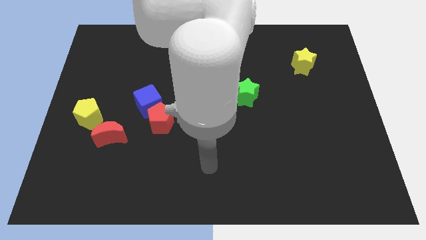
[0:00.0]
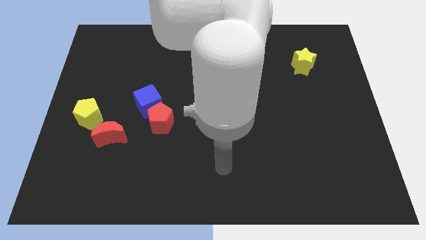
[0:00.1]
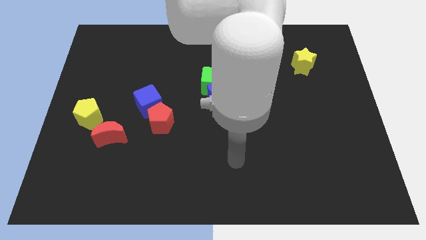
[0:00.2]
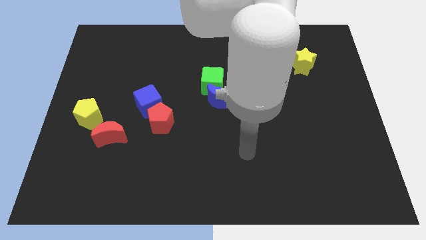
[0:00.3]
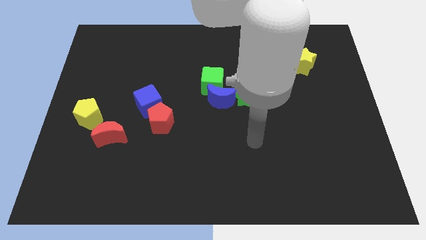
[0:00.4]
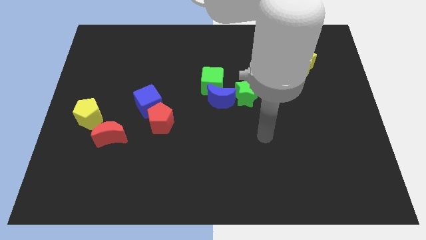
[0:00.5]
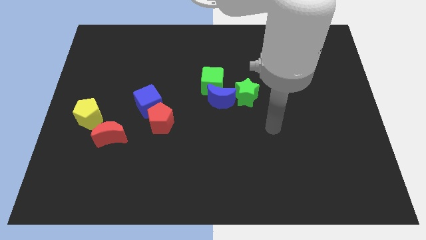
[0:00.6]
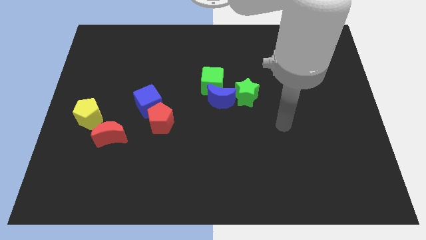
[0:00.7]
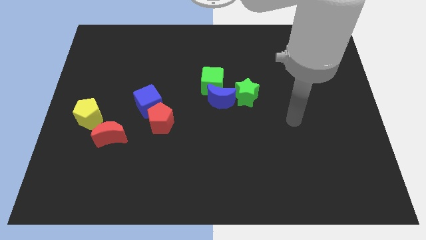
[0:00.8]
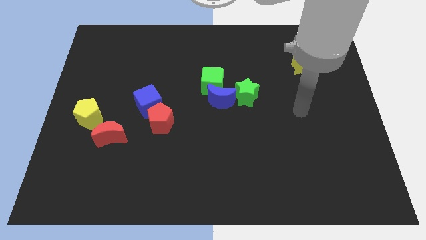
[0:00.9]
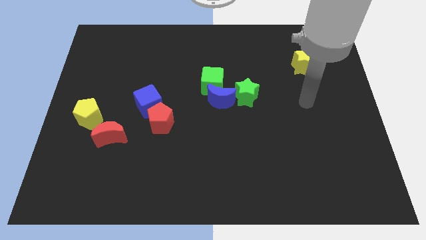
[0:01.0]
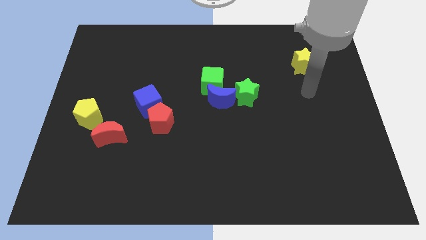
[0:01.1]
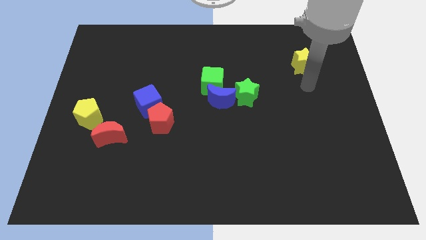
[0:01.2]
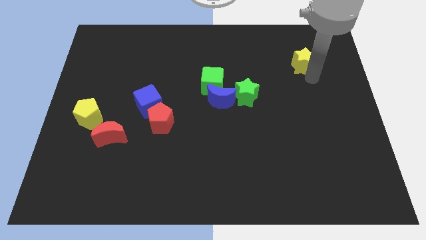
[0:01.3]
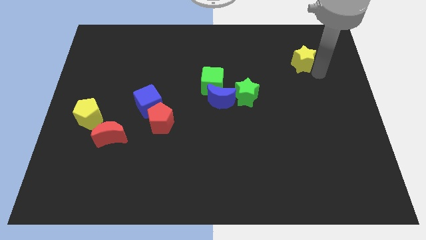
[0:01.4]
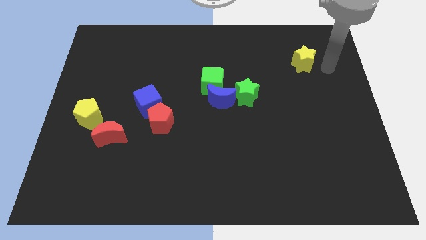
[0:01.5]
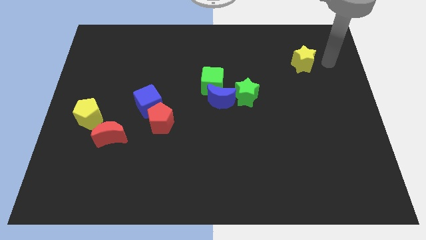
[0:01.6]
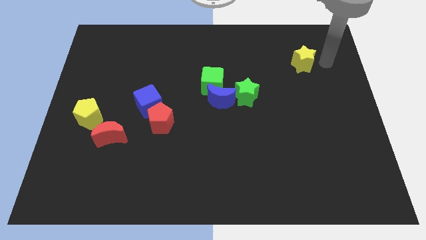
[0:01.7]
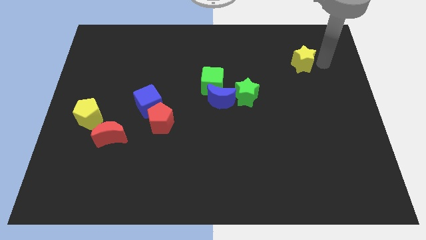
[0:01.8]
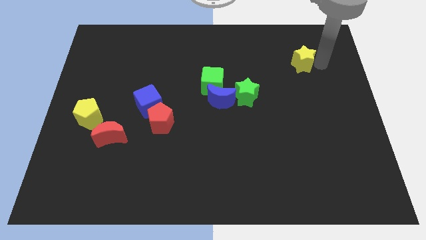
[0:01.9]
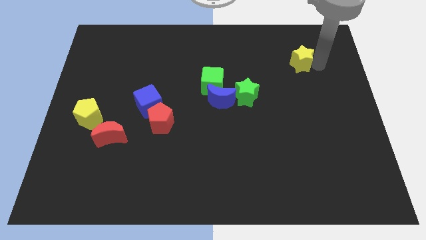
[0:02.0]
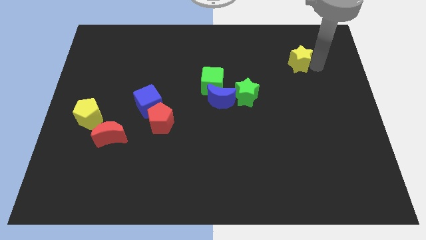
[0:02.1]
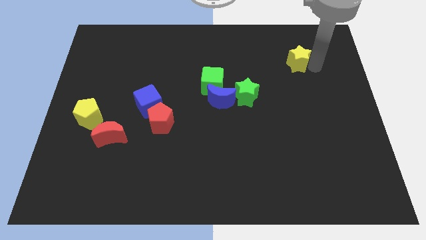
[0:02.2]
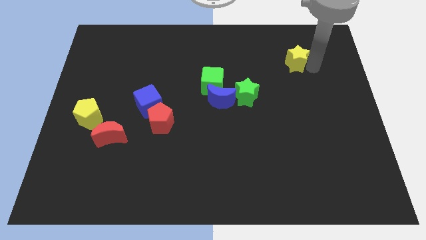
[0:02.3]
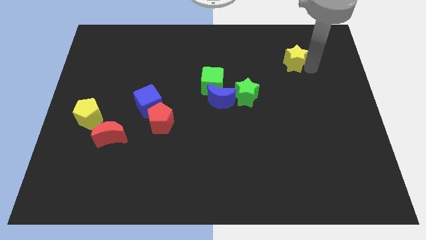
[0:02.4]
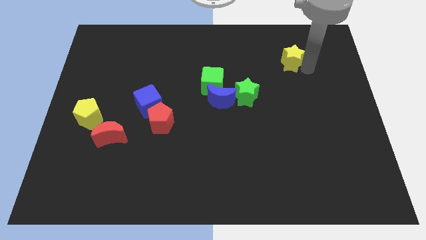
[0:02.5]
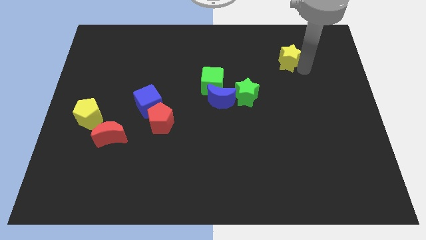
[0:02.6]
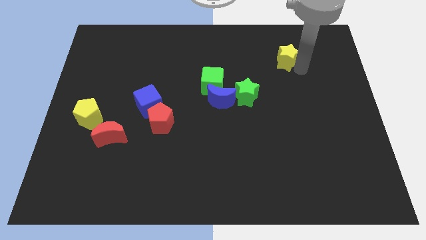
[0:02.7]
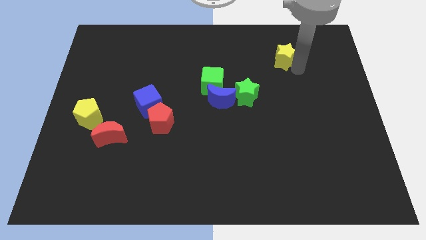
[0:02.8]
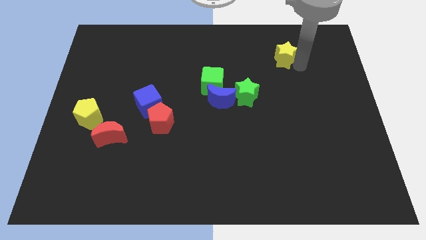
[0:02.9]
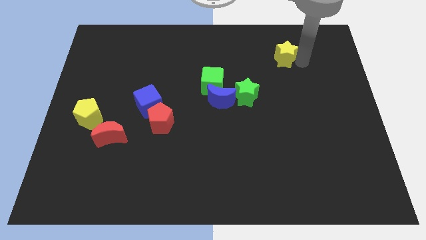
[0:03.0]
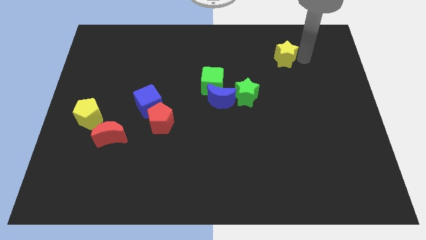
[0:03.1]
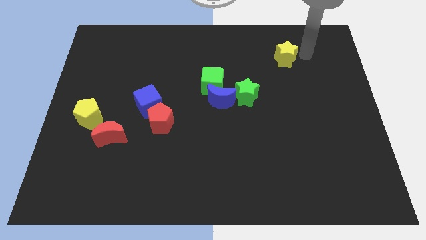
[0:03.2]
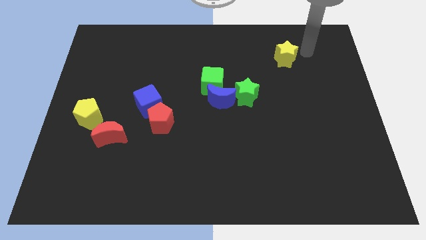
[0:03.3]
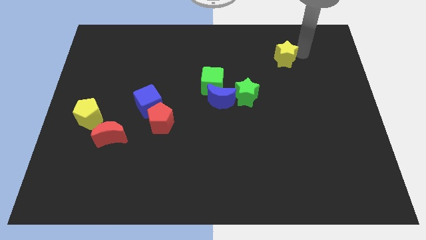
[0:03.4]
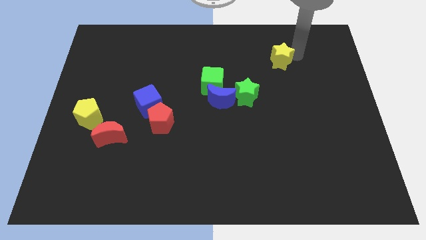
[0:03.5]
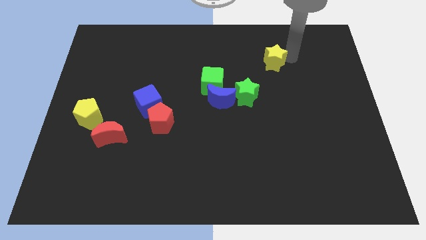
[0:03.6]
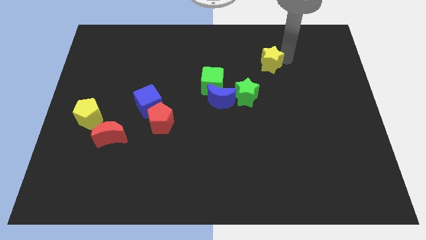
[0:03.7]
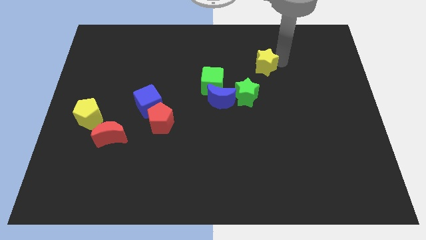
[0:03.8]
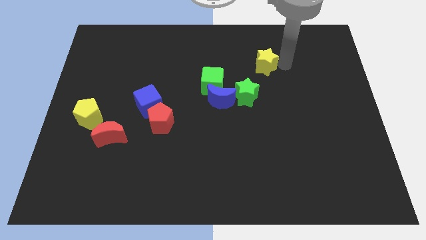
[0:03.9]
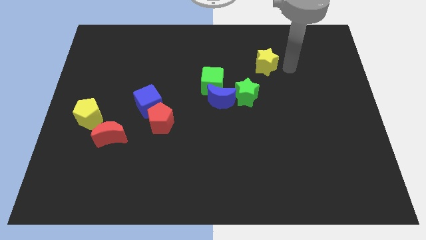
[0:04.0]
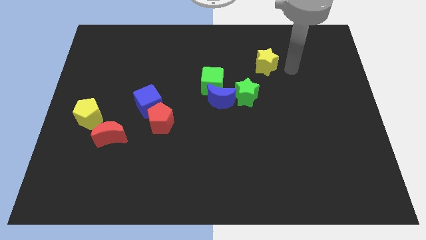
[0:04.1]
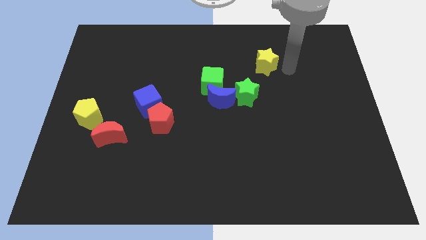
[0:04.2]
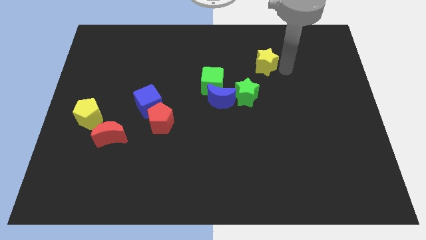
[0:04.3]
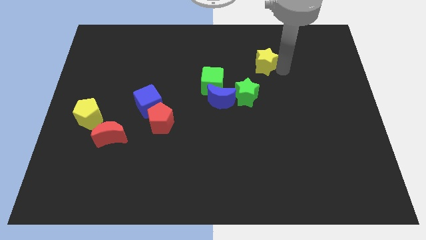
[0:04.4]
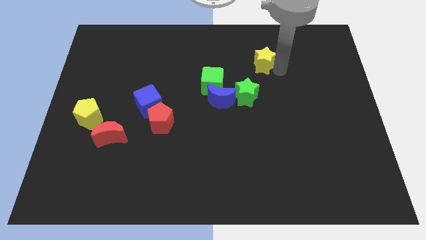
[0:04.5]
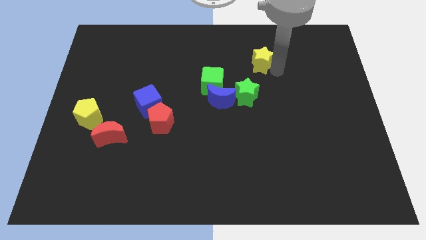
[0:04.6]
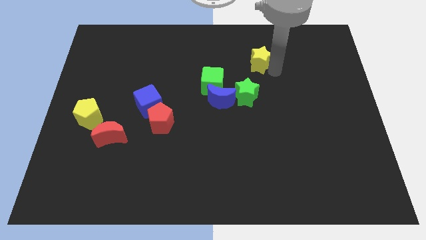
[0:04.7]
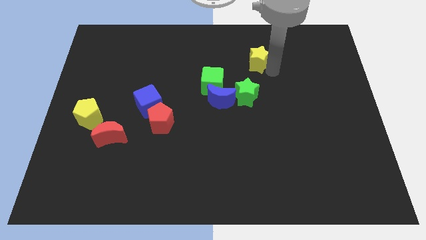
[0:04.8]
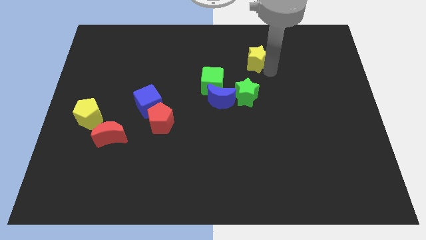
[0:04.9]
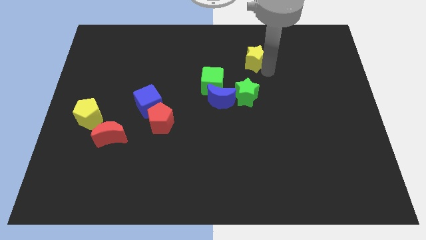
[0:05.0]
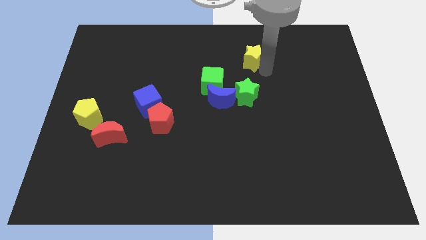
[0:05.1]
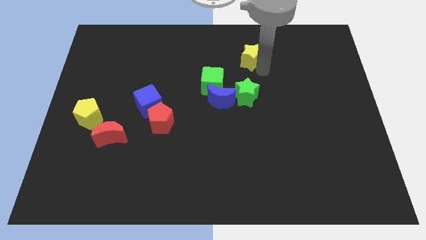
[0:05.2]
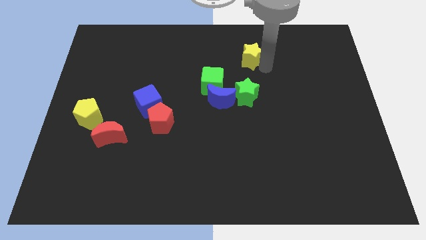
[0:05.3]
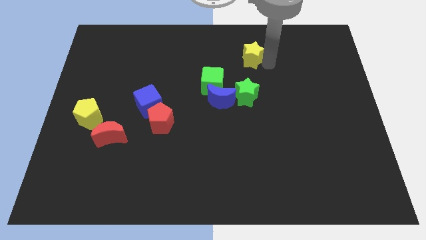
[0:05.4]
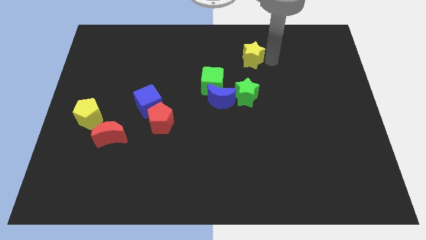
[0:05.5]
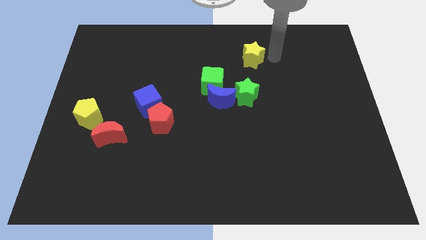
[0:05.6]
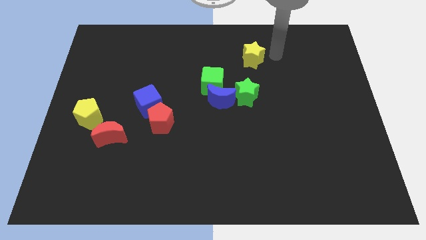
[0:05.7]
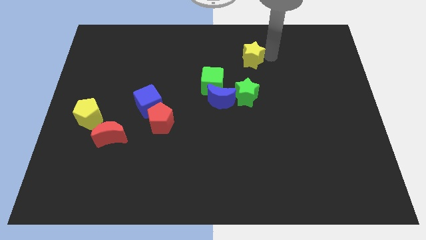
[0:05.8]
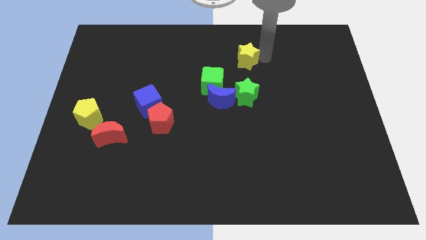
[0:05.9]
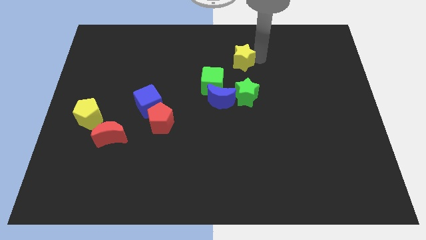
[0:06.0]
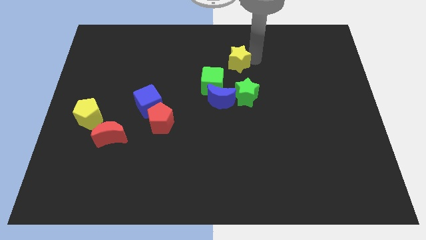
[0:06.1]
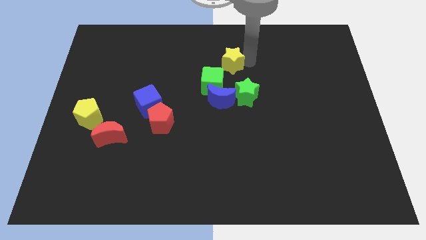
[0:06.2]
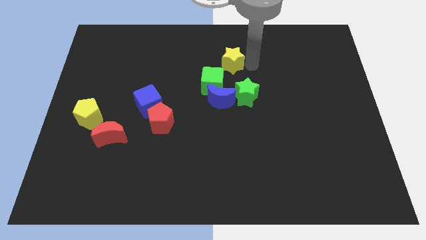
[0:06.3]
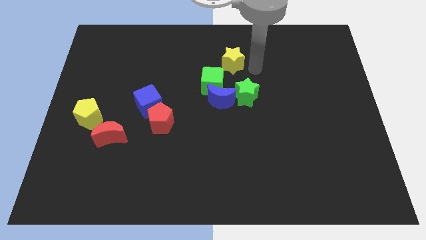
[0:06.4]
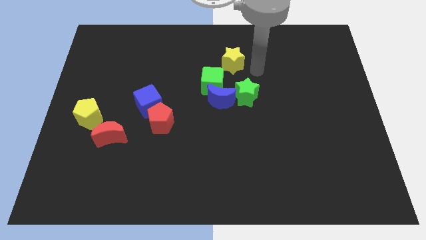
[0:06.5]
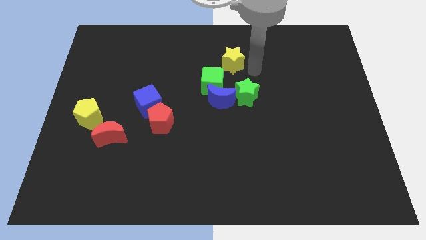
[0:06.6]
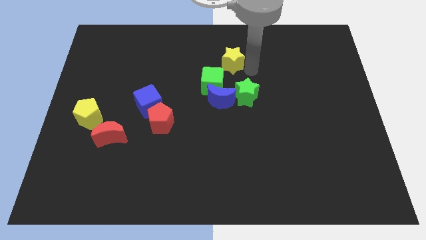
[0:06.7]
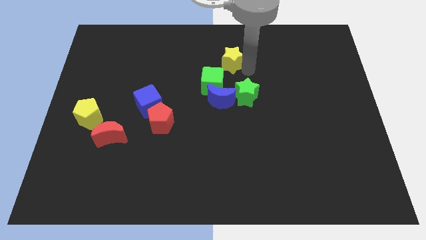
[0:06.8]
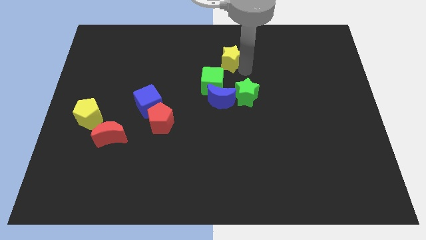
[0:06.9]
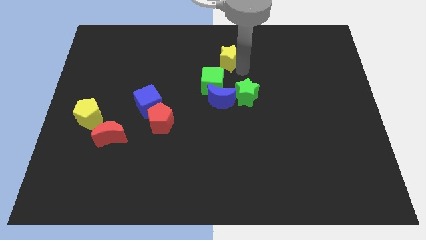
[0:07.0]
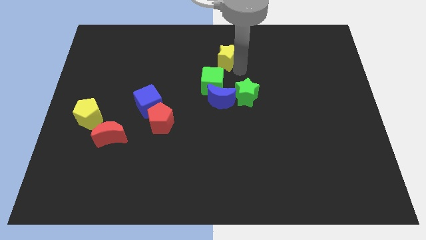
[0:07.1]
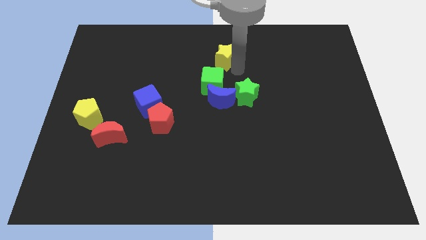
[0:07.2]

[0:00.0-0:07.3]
push the yellow star left

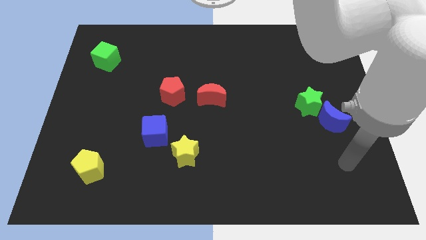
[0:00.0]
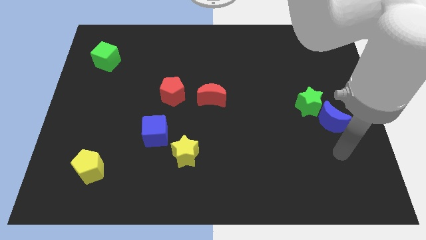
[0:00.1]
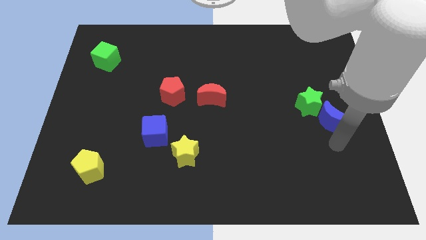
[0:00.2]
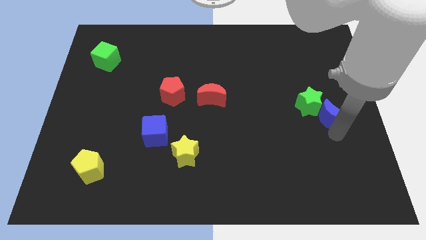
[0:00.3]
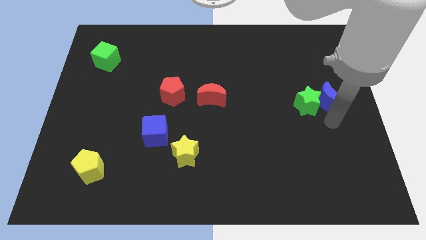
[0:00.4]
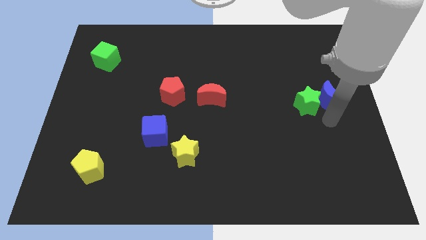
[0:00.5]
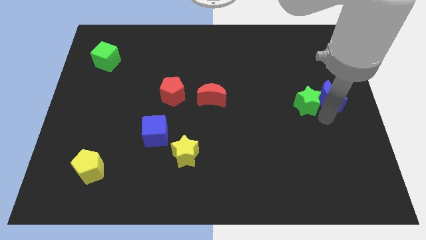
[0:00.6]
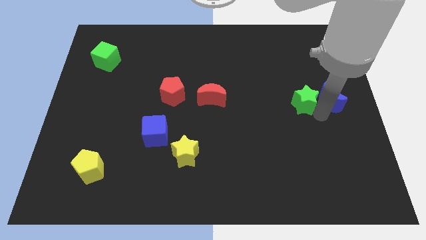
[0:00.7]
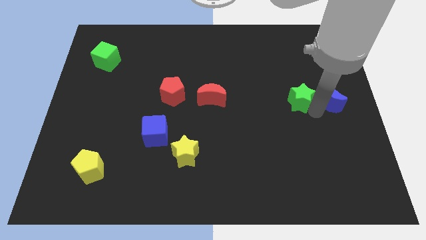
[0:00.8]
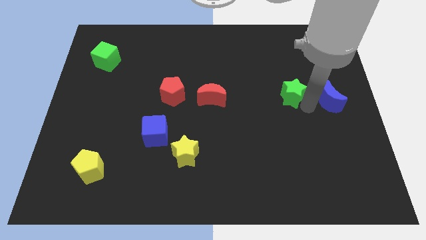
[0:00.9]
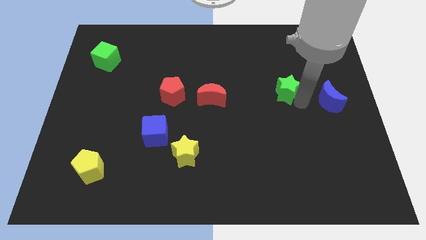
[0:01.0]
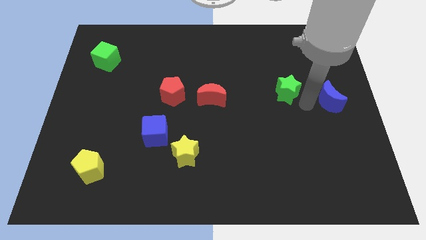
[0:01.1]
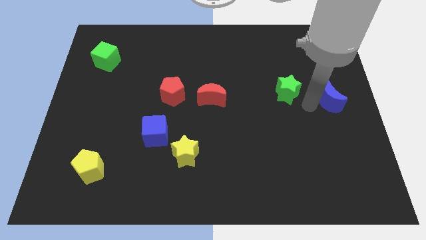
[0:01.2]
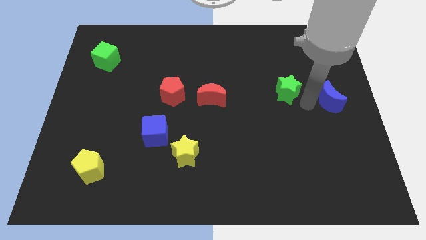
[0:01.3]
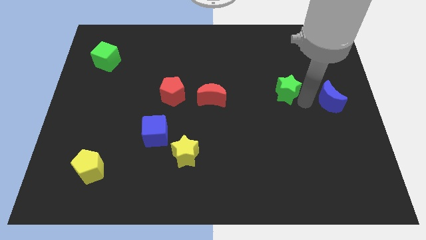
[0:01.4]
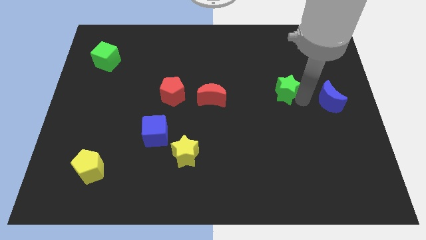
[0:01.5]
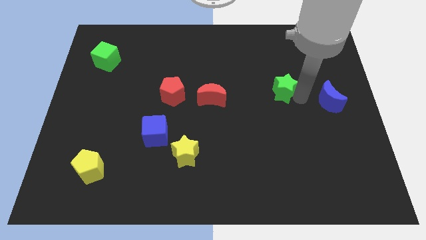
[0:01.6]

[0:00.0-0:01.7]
slightly push the green star up and left
